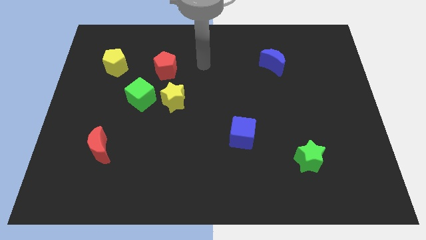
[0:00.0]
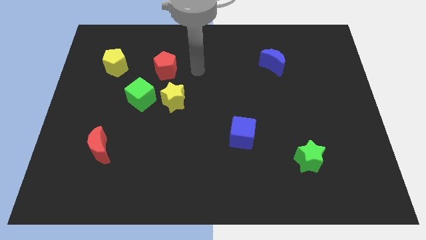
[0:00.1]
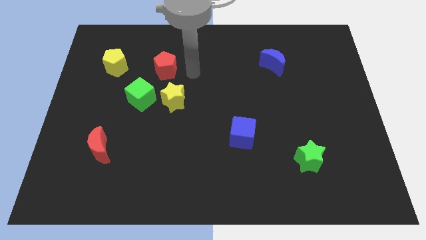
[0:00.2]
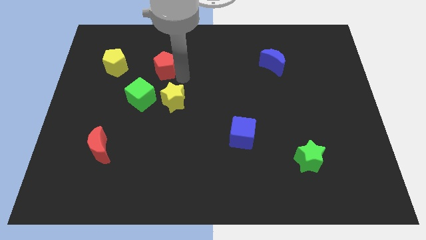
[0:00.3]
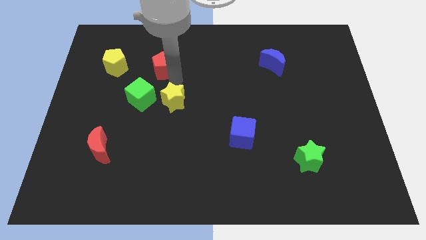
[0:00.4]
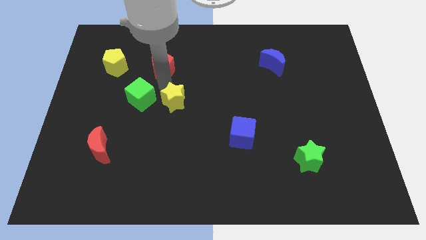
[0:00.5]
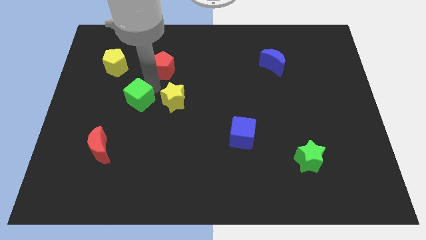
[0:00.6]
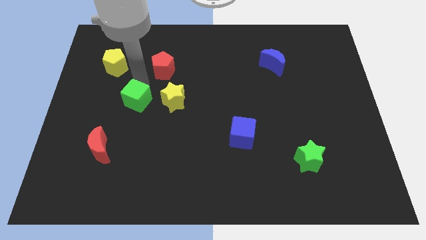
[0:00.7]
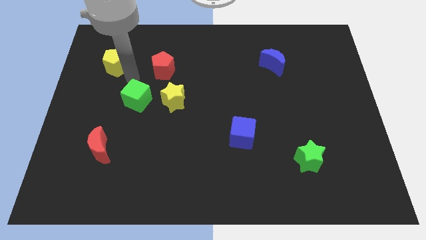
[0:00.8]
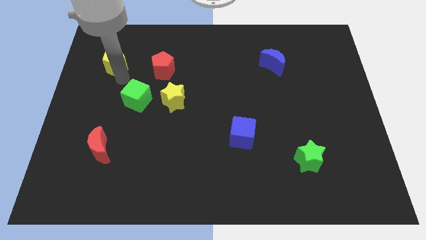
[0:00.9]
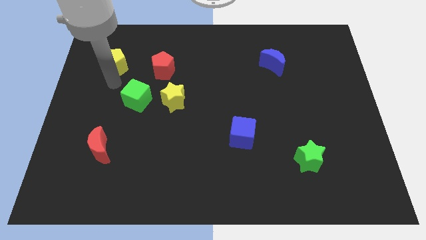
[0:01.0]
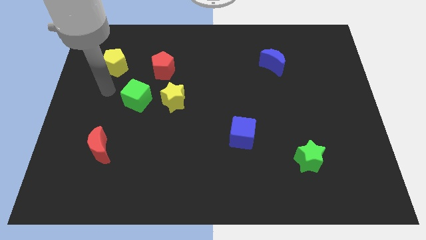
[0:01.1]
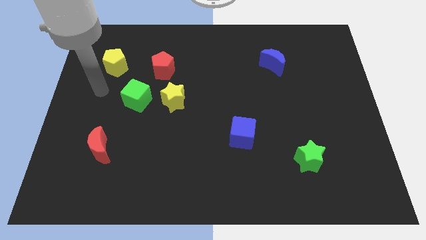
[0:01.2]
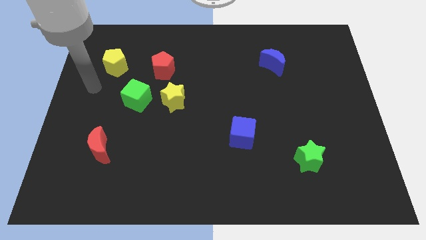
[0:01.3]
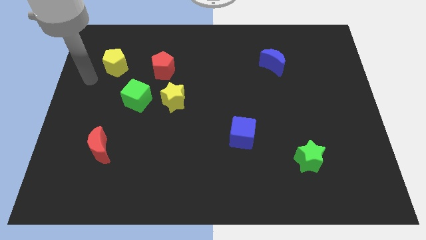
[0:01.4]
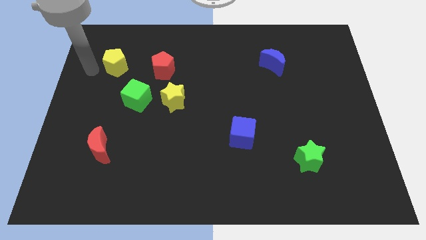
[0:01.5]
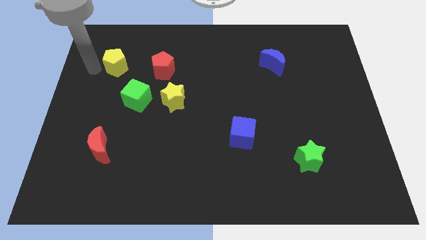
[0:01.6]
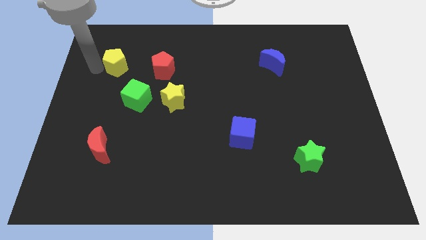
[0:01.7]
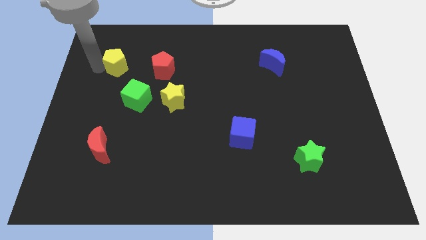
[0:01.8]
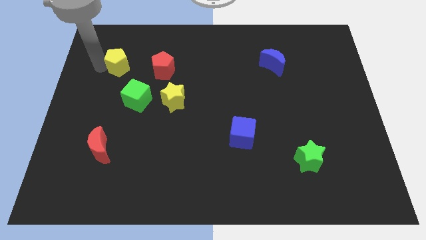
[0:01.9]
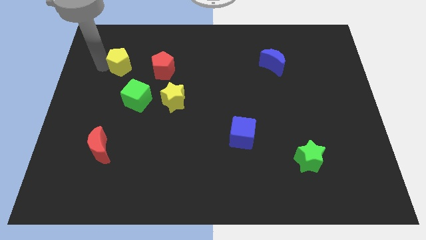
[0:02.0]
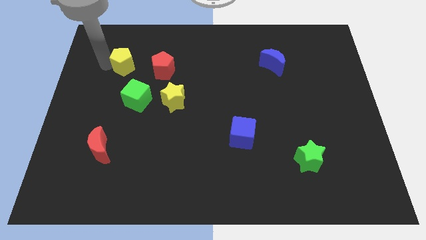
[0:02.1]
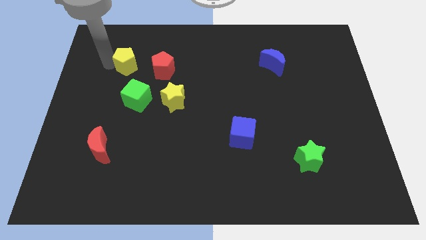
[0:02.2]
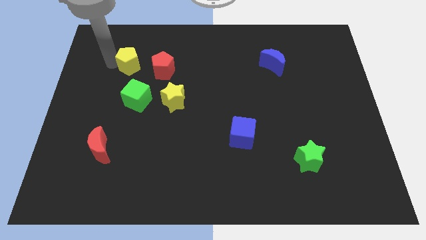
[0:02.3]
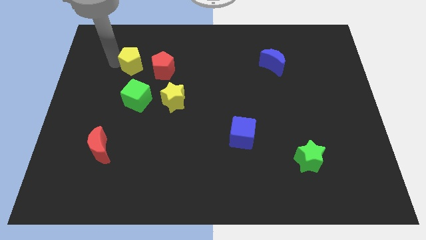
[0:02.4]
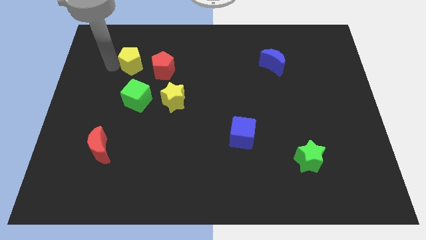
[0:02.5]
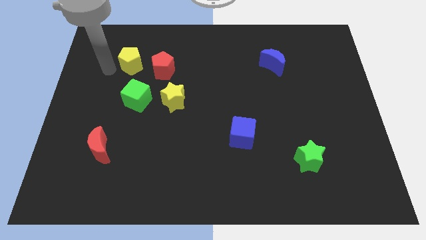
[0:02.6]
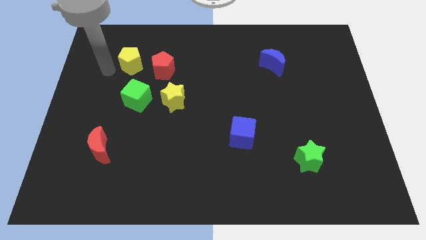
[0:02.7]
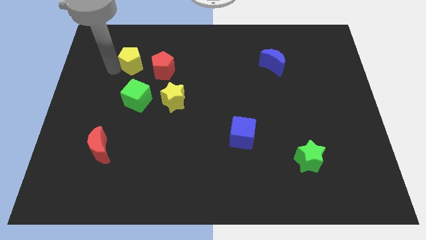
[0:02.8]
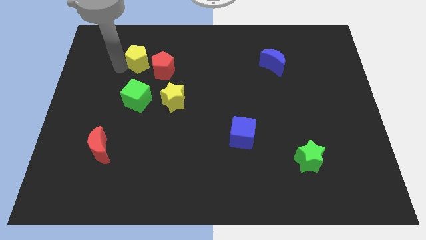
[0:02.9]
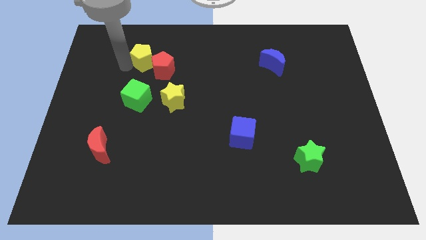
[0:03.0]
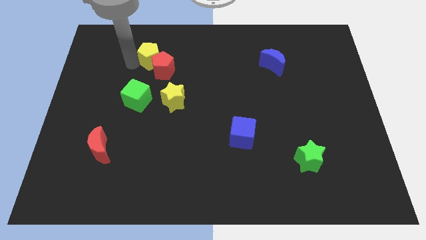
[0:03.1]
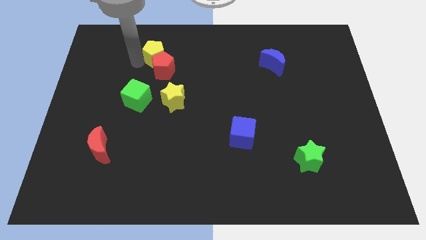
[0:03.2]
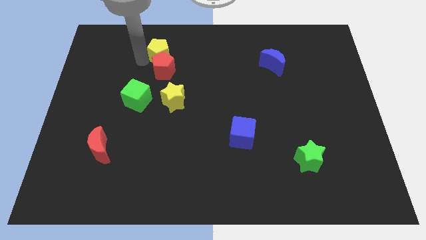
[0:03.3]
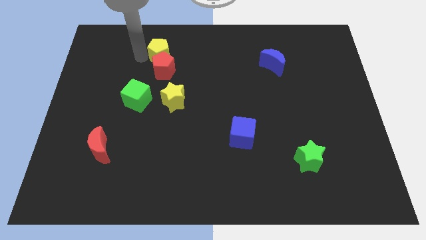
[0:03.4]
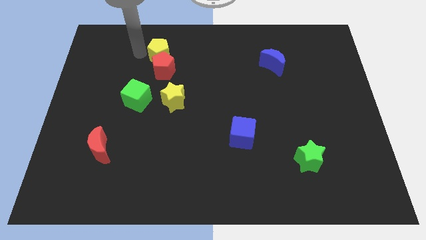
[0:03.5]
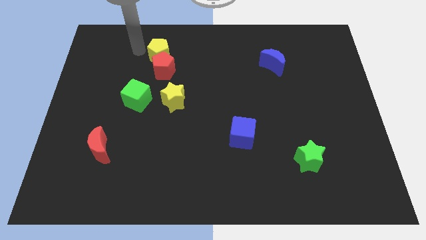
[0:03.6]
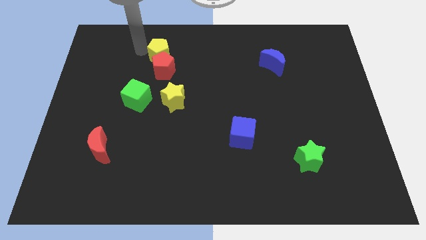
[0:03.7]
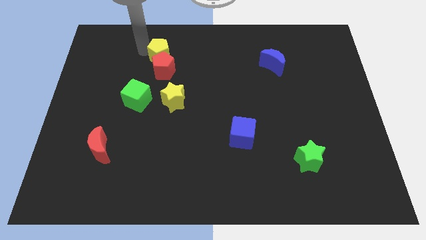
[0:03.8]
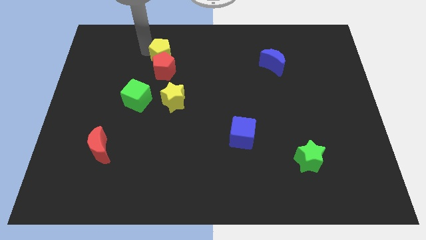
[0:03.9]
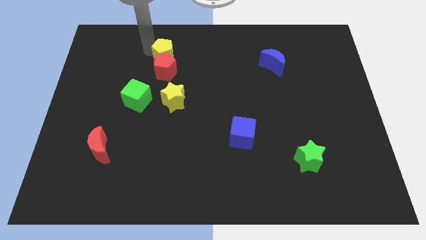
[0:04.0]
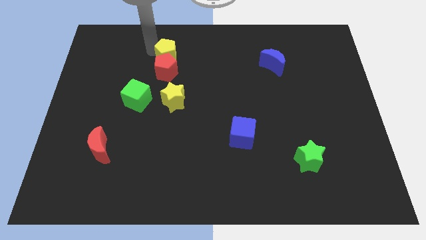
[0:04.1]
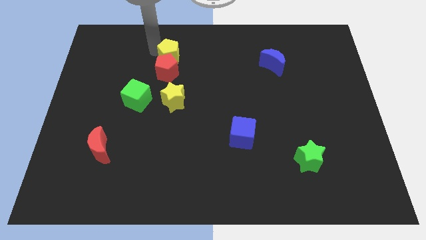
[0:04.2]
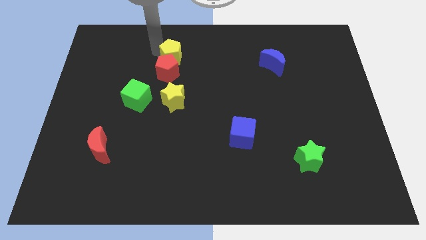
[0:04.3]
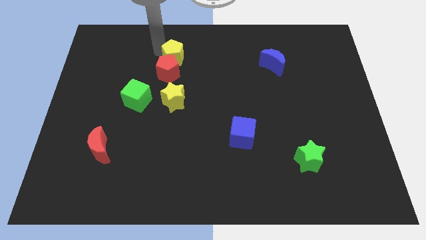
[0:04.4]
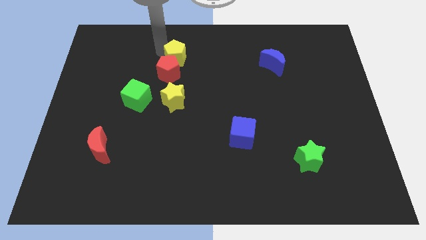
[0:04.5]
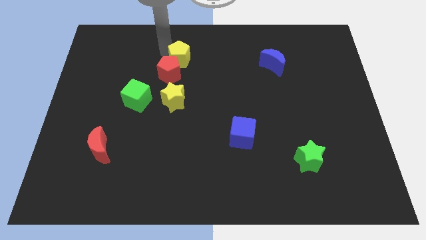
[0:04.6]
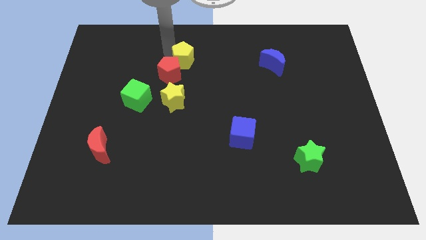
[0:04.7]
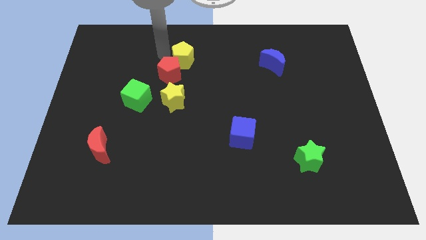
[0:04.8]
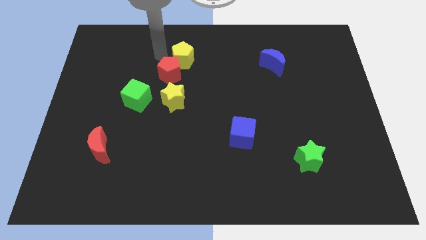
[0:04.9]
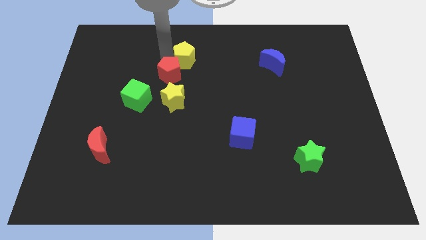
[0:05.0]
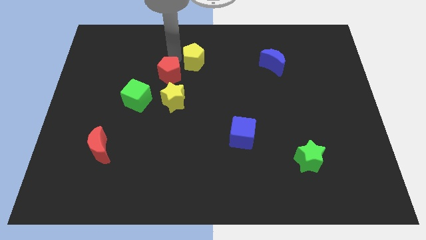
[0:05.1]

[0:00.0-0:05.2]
push the yellow pentagon to the right

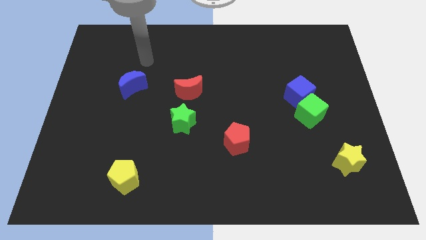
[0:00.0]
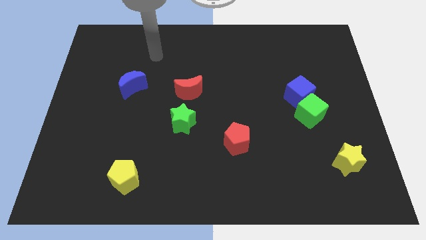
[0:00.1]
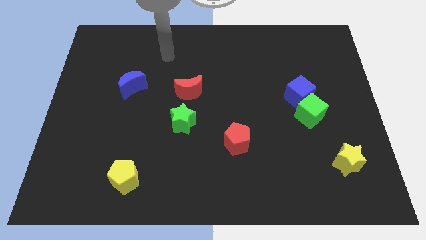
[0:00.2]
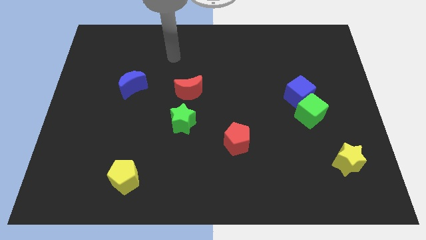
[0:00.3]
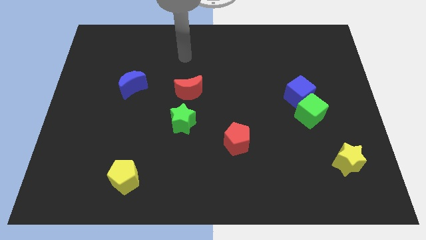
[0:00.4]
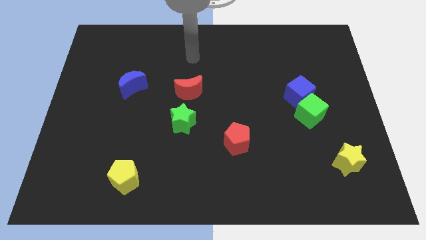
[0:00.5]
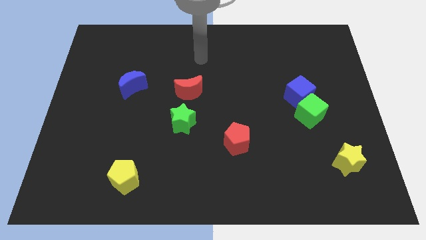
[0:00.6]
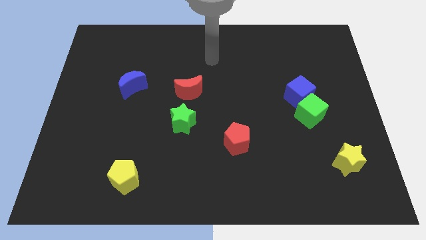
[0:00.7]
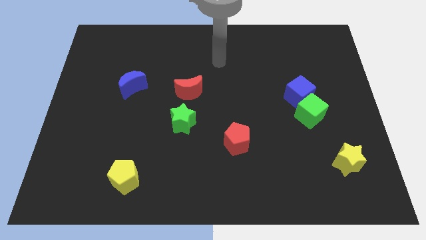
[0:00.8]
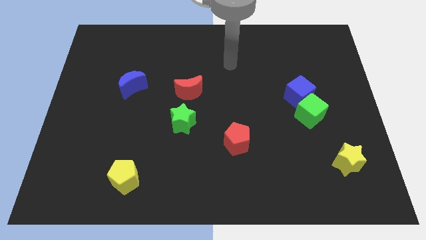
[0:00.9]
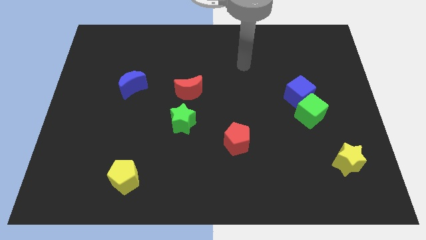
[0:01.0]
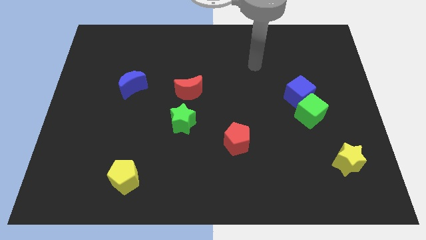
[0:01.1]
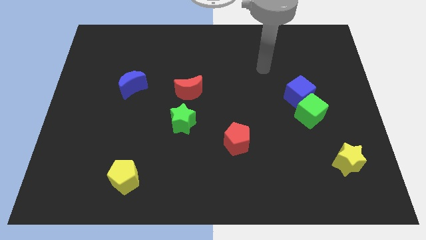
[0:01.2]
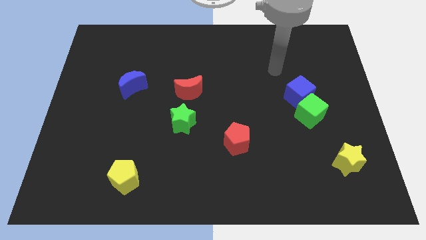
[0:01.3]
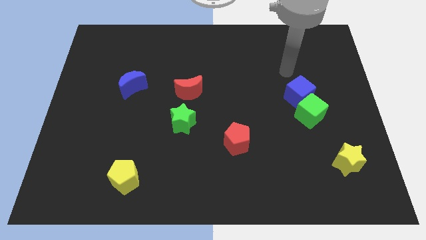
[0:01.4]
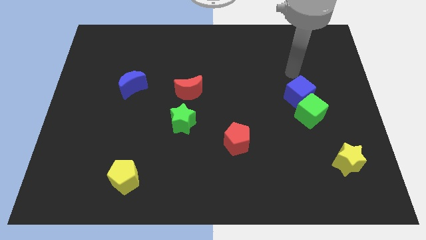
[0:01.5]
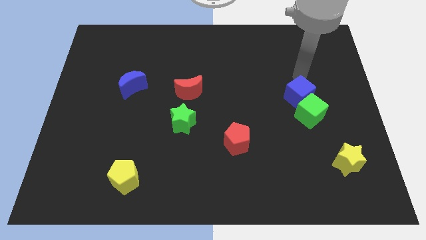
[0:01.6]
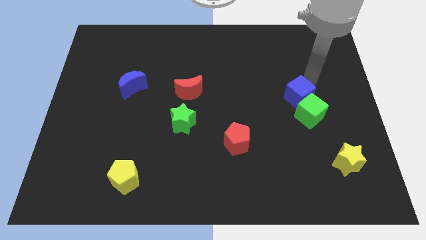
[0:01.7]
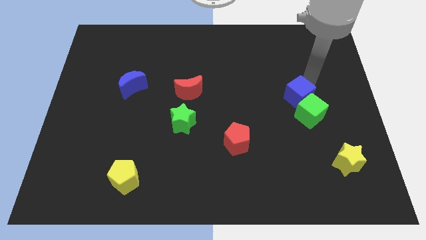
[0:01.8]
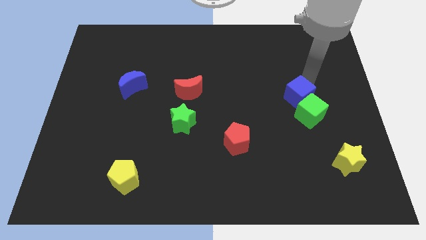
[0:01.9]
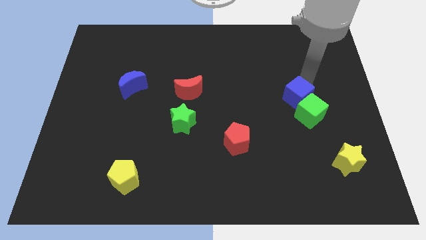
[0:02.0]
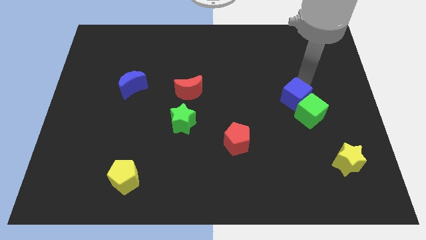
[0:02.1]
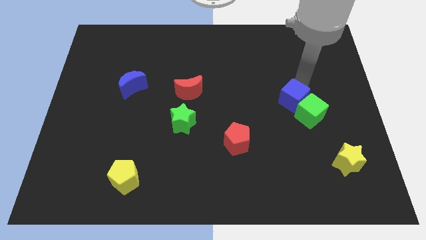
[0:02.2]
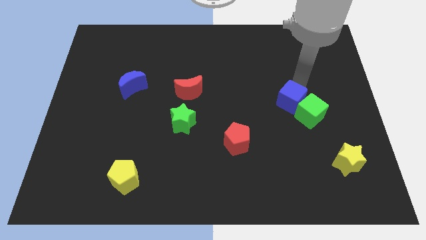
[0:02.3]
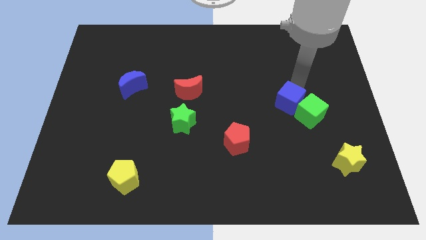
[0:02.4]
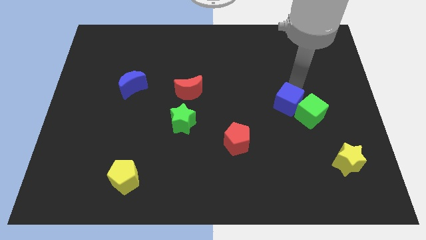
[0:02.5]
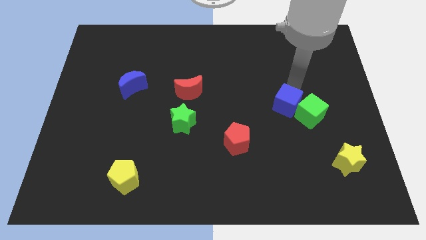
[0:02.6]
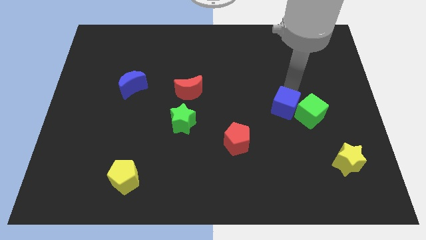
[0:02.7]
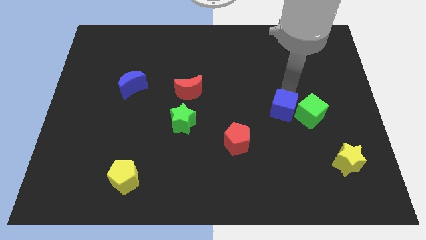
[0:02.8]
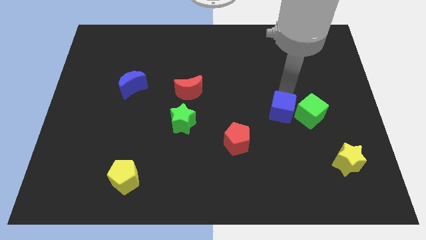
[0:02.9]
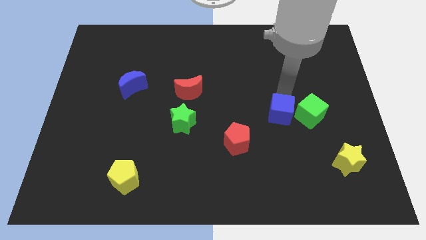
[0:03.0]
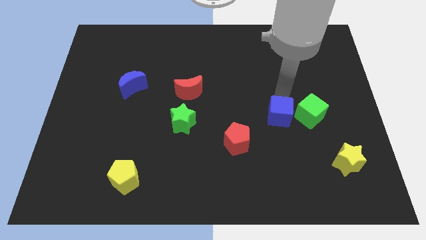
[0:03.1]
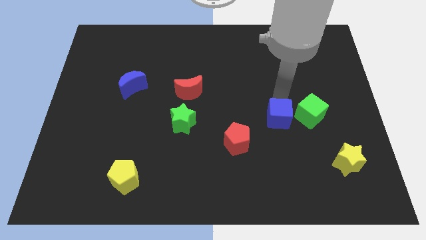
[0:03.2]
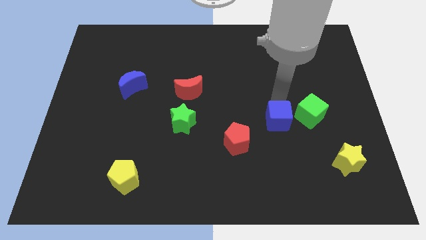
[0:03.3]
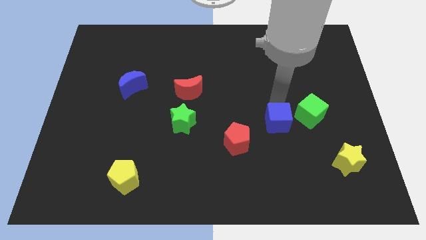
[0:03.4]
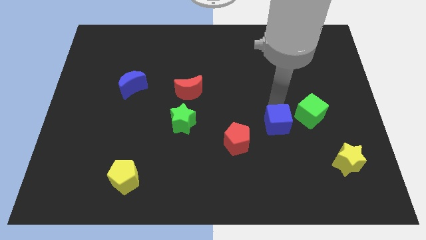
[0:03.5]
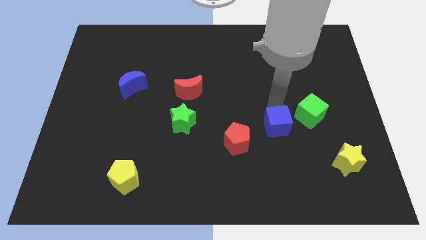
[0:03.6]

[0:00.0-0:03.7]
slightly slide the blue cube downwards
